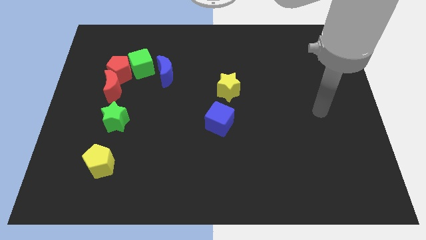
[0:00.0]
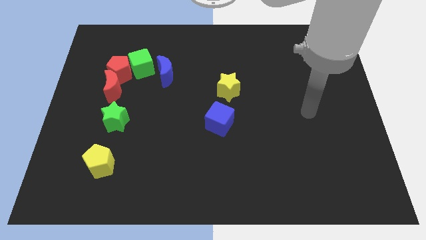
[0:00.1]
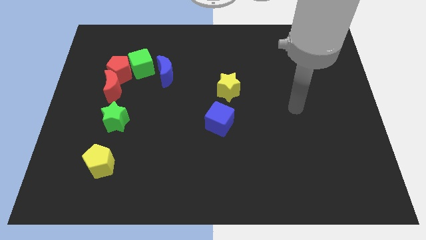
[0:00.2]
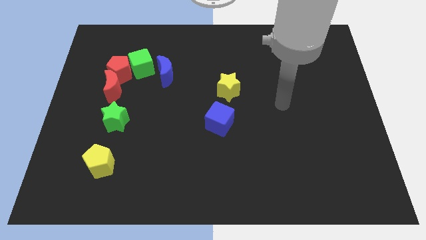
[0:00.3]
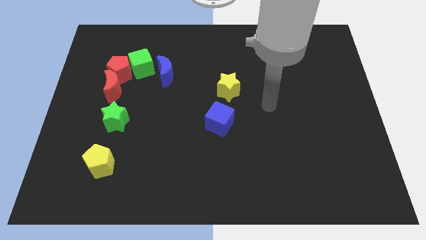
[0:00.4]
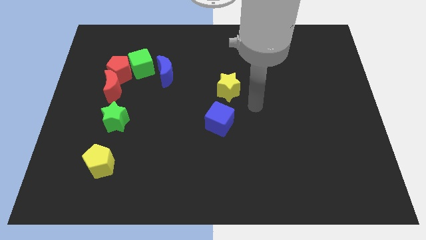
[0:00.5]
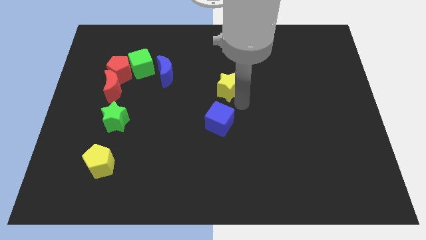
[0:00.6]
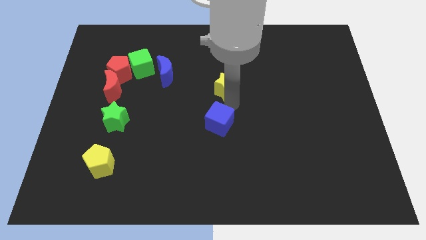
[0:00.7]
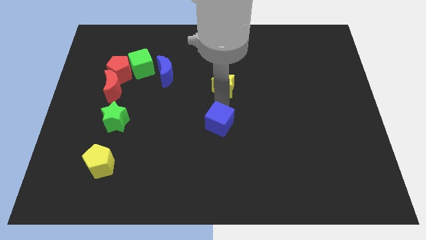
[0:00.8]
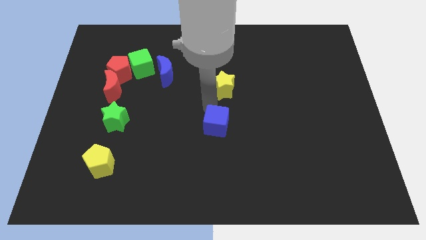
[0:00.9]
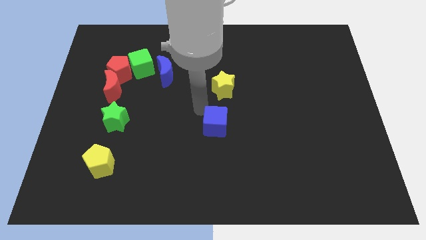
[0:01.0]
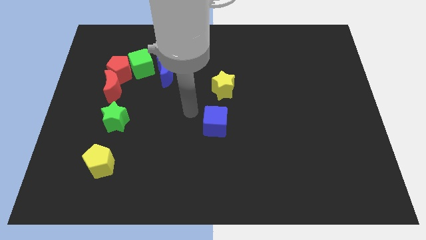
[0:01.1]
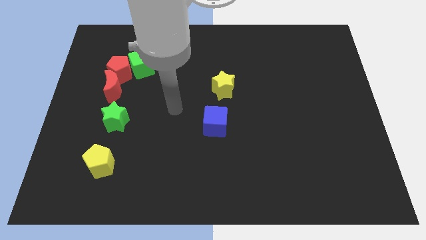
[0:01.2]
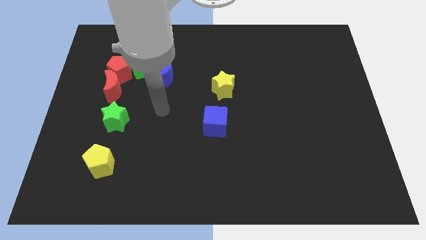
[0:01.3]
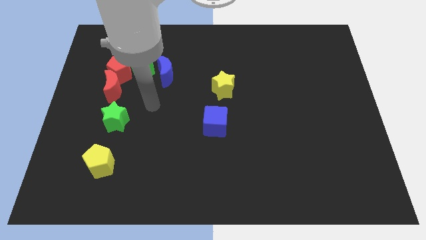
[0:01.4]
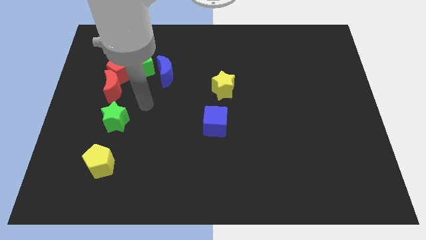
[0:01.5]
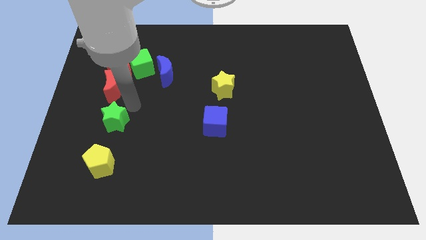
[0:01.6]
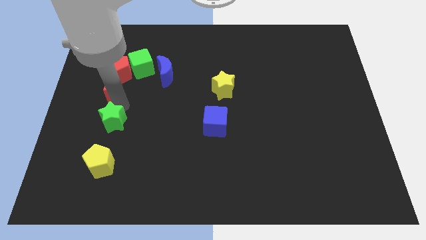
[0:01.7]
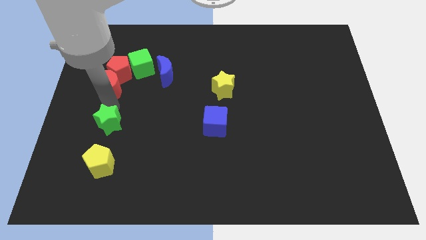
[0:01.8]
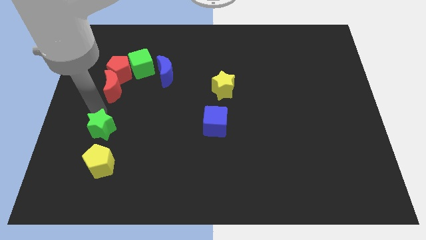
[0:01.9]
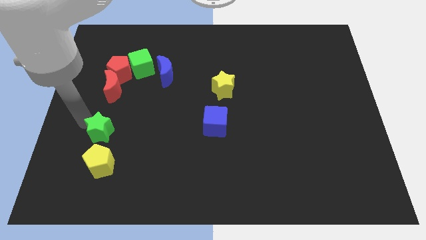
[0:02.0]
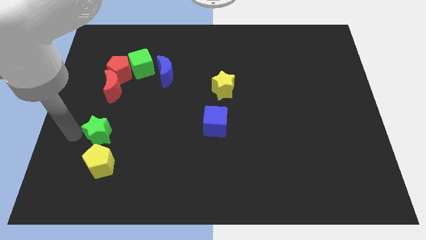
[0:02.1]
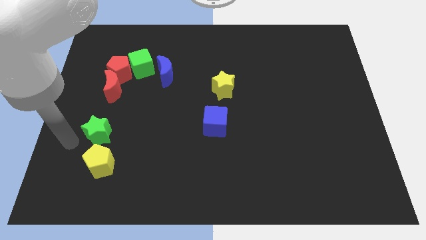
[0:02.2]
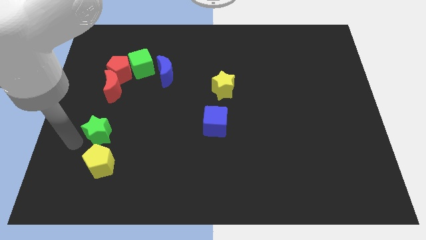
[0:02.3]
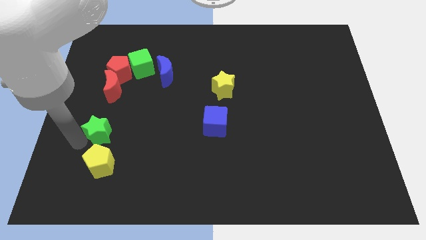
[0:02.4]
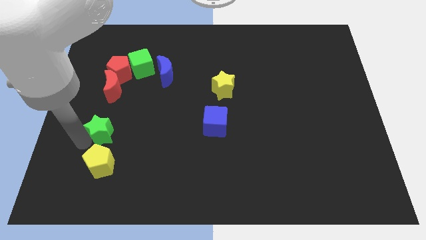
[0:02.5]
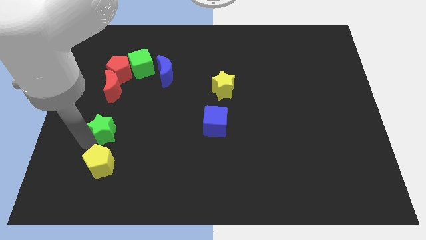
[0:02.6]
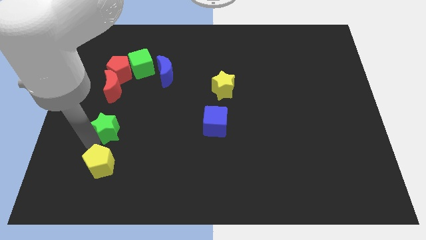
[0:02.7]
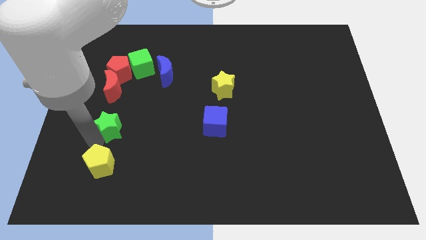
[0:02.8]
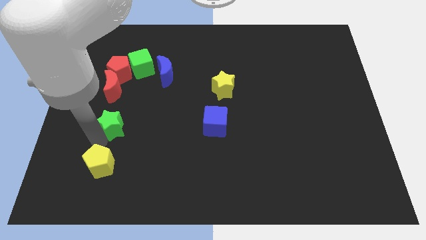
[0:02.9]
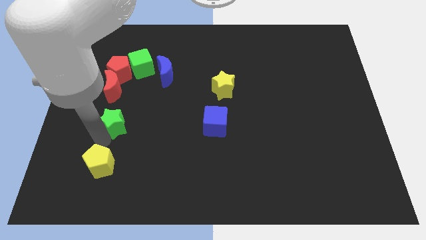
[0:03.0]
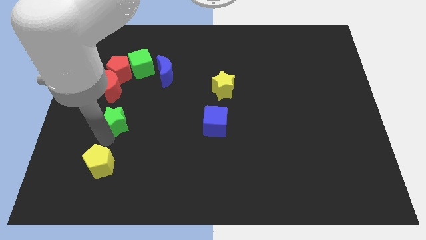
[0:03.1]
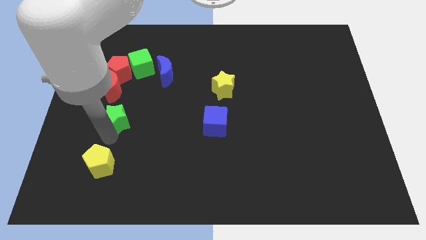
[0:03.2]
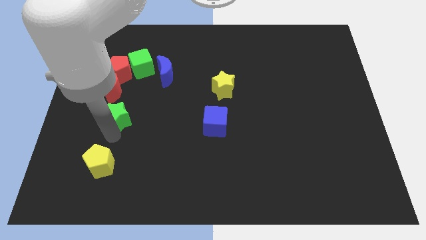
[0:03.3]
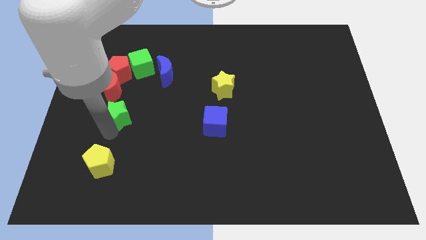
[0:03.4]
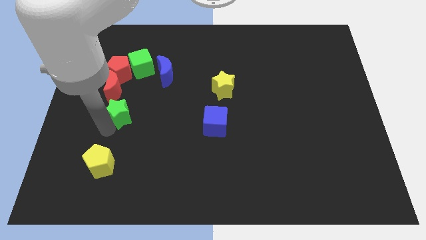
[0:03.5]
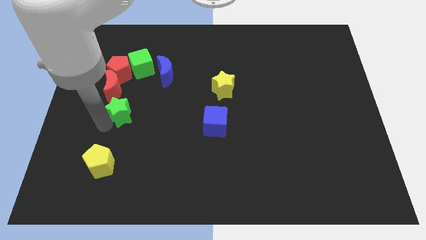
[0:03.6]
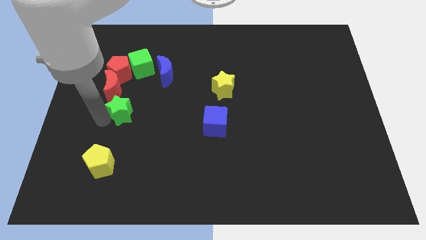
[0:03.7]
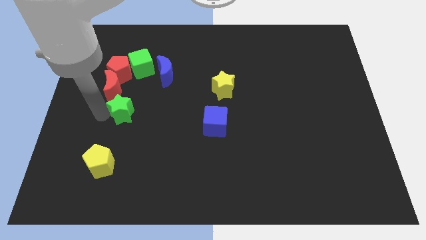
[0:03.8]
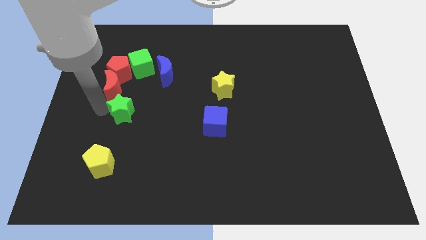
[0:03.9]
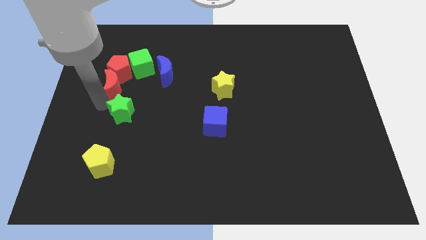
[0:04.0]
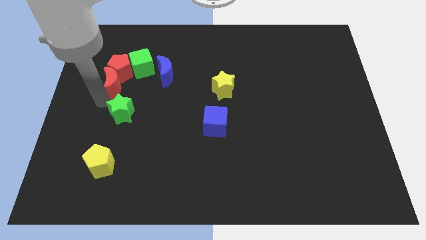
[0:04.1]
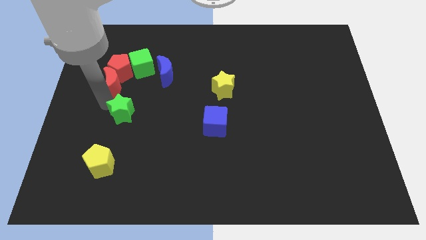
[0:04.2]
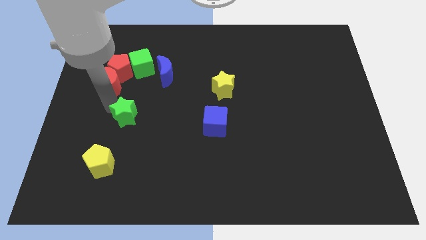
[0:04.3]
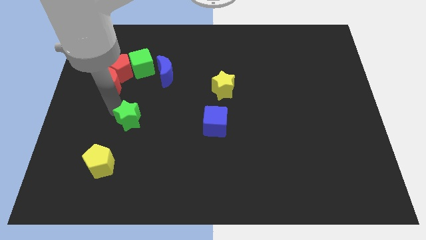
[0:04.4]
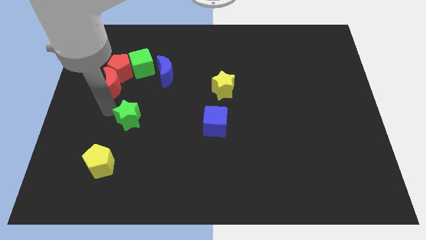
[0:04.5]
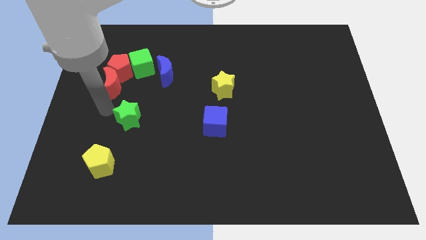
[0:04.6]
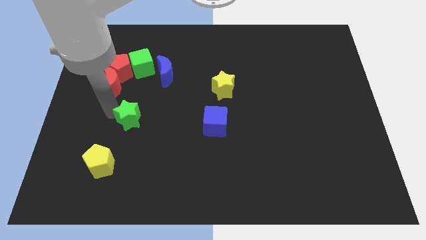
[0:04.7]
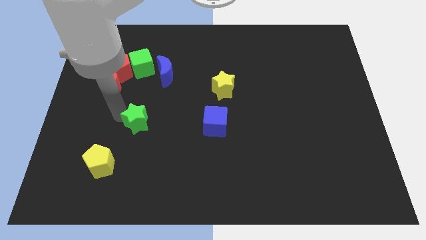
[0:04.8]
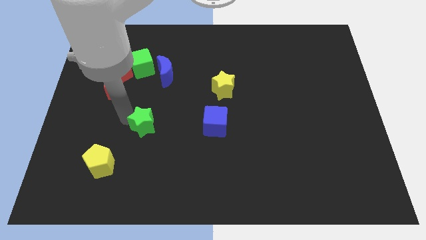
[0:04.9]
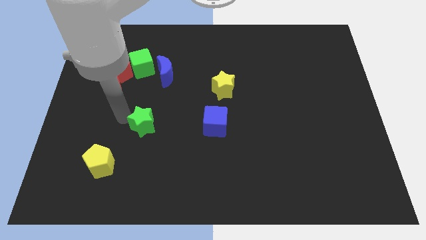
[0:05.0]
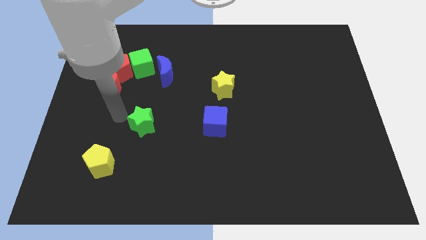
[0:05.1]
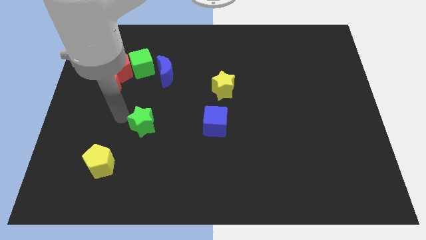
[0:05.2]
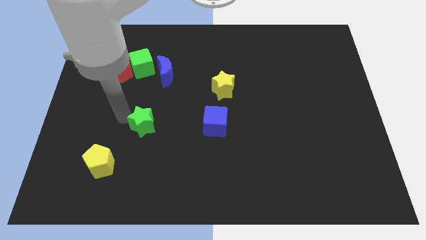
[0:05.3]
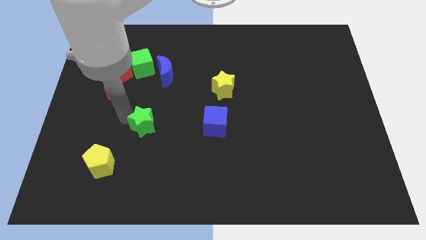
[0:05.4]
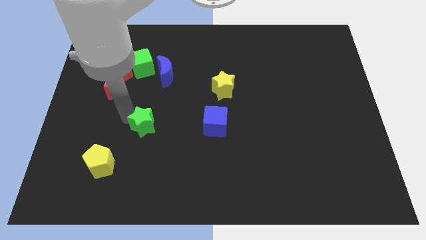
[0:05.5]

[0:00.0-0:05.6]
push the green star right somewhat

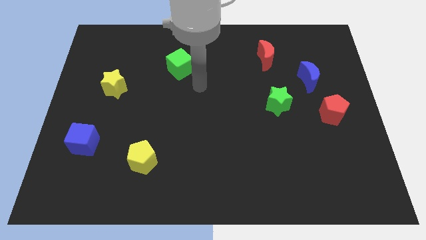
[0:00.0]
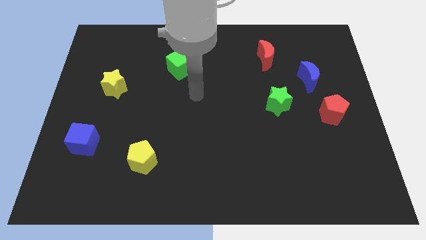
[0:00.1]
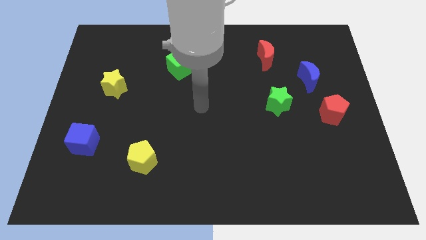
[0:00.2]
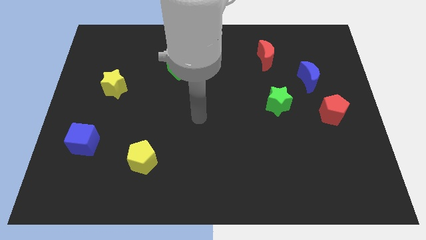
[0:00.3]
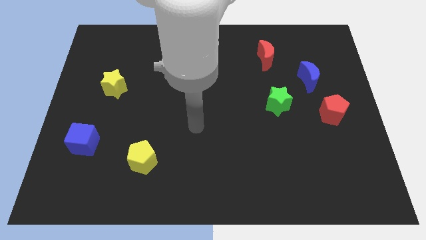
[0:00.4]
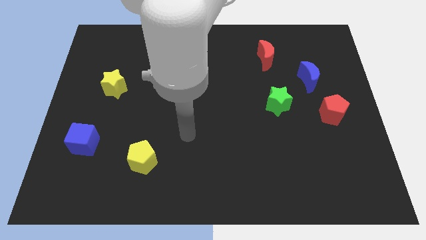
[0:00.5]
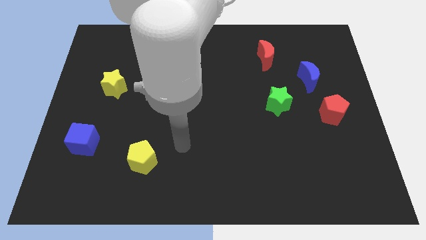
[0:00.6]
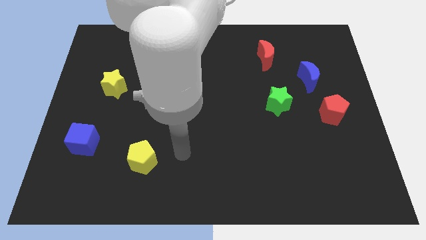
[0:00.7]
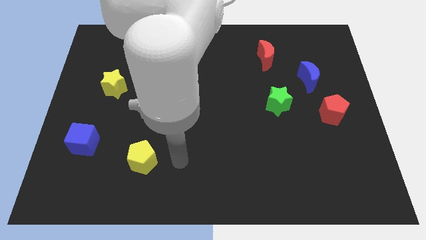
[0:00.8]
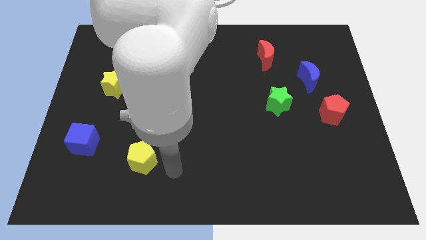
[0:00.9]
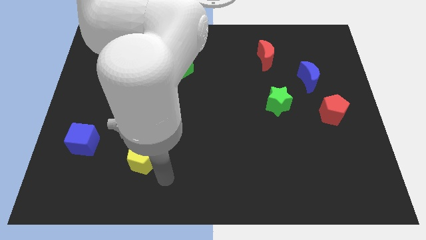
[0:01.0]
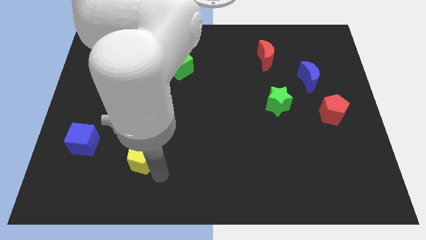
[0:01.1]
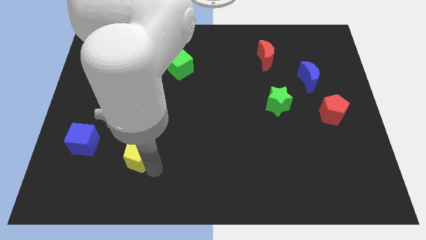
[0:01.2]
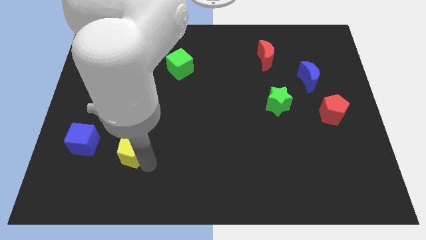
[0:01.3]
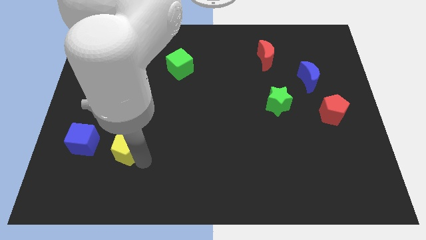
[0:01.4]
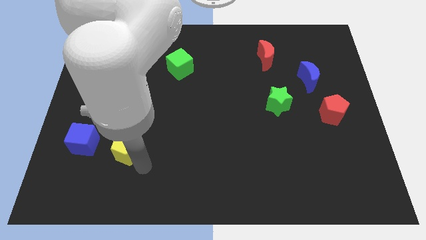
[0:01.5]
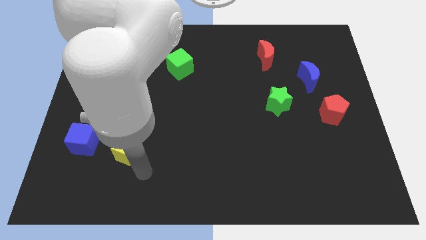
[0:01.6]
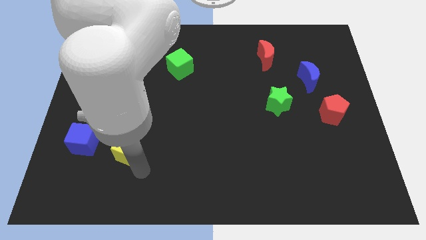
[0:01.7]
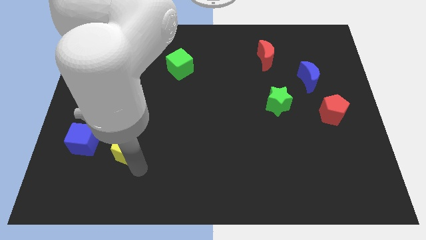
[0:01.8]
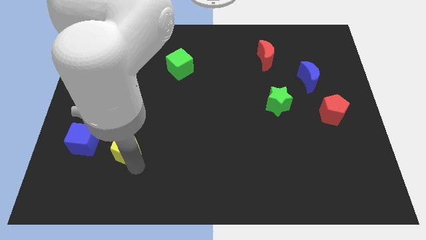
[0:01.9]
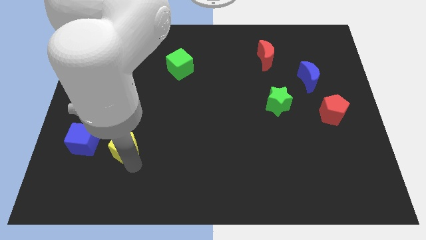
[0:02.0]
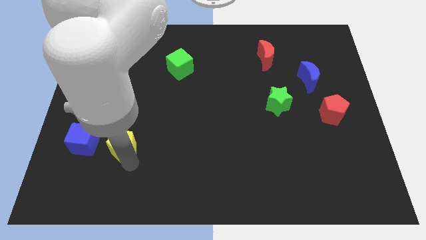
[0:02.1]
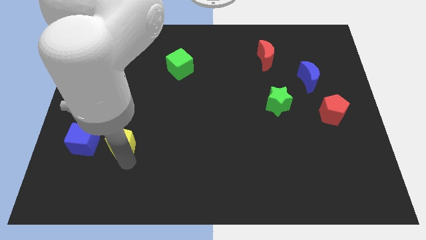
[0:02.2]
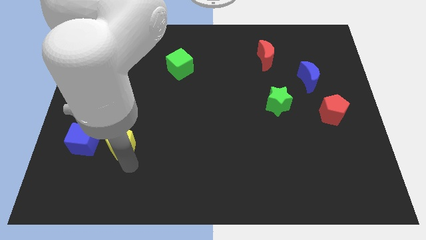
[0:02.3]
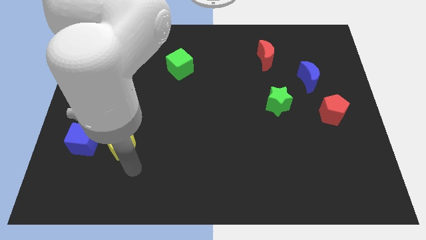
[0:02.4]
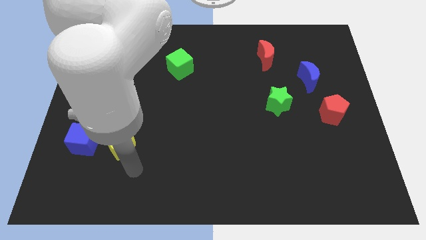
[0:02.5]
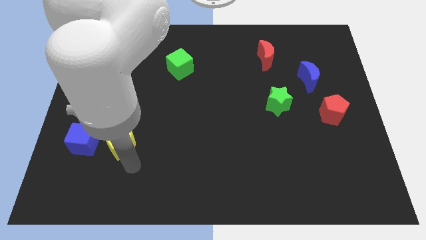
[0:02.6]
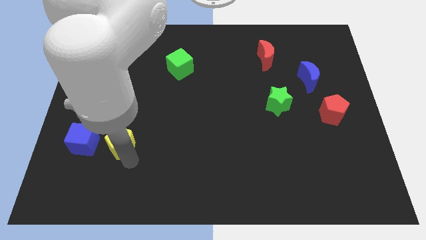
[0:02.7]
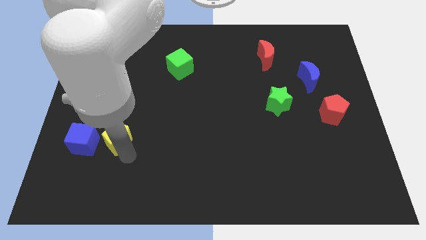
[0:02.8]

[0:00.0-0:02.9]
slide the yellow pentagon diagonally up and to the left a little
